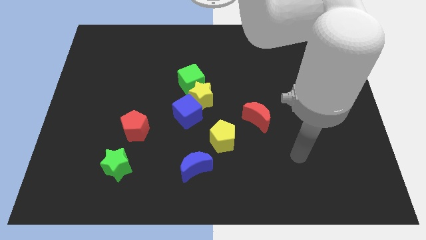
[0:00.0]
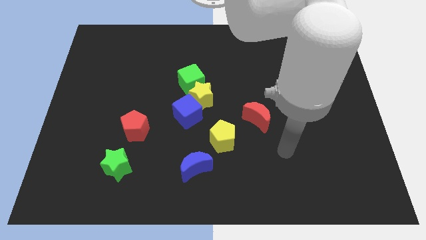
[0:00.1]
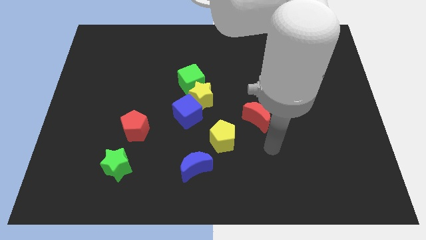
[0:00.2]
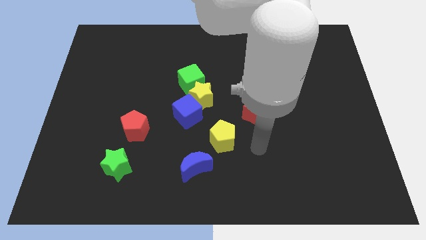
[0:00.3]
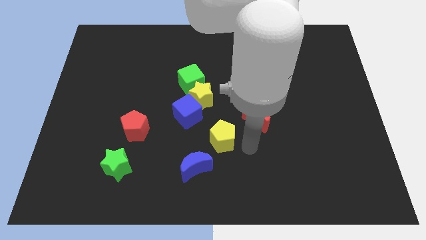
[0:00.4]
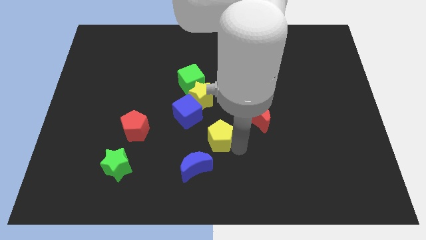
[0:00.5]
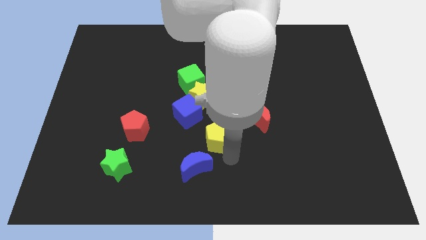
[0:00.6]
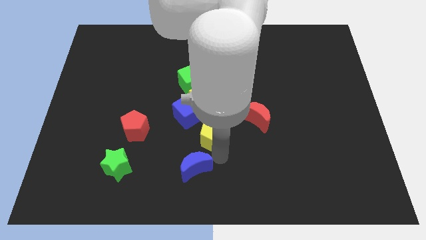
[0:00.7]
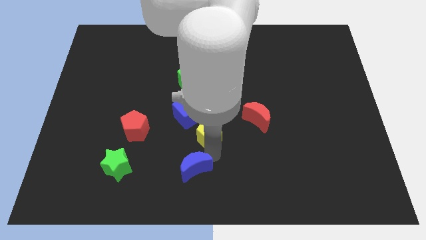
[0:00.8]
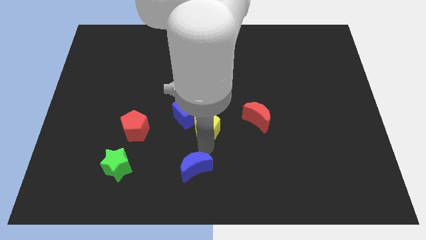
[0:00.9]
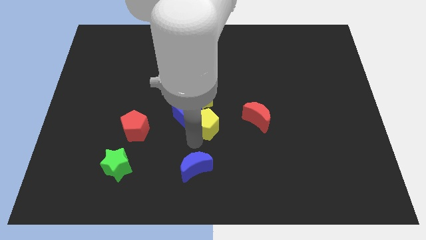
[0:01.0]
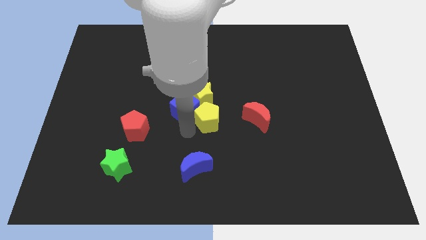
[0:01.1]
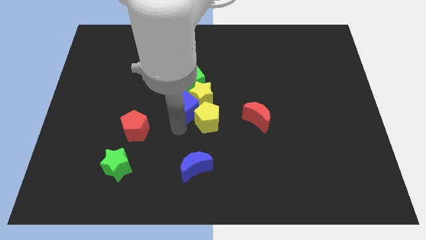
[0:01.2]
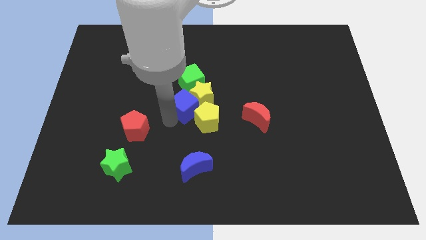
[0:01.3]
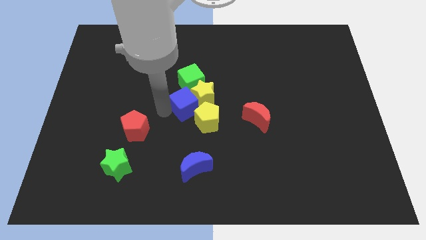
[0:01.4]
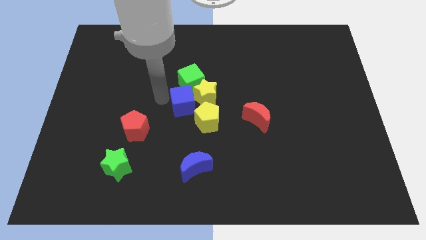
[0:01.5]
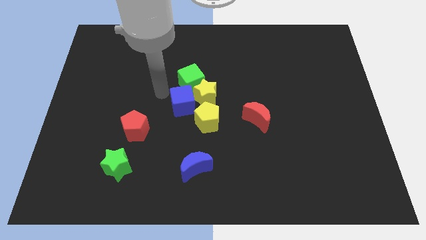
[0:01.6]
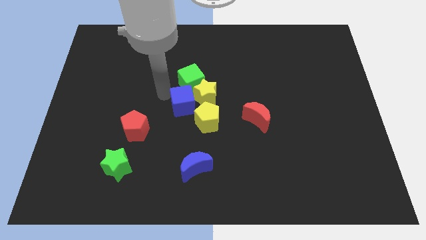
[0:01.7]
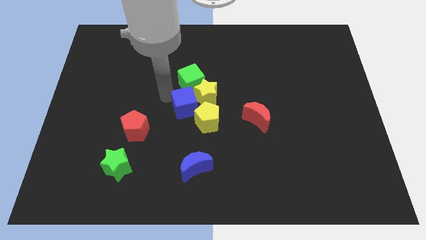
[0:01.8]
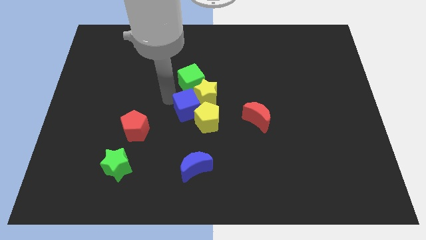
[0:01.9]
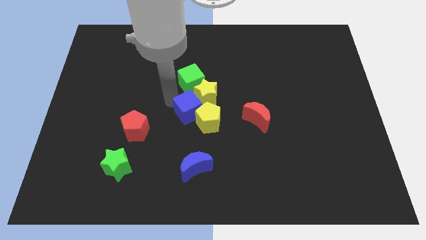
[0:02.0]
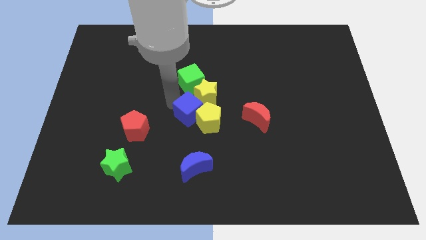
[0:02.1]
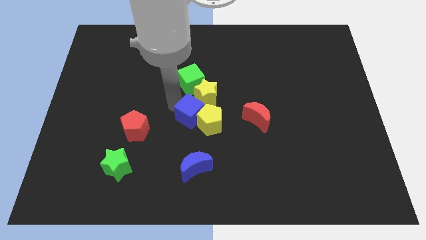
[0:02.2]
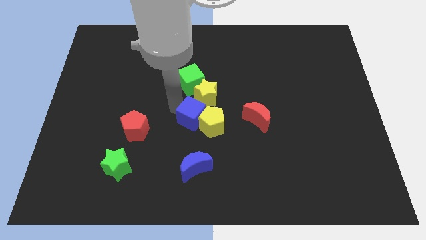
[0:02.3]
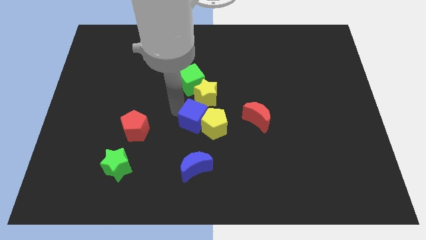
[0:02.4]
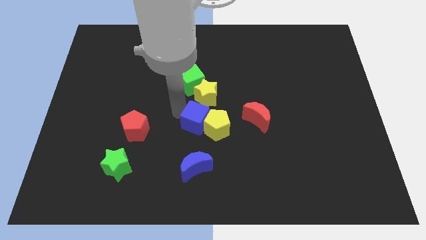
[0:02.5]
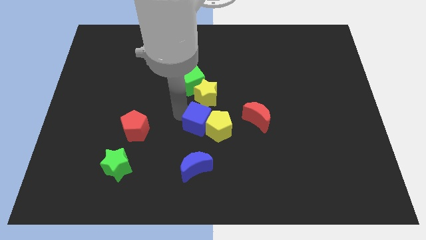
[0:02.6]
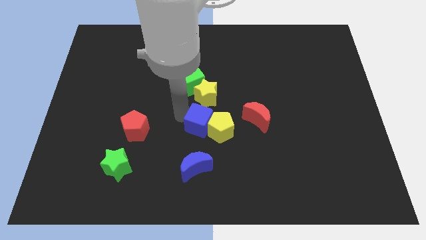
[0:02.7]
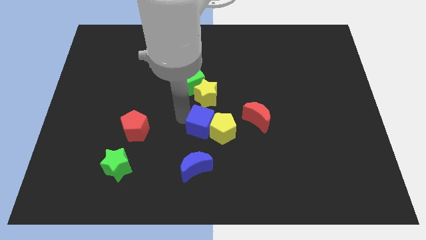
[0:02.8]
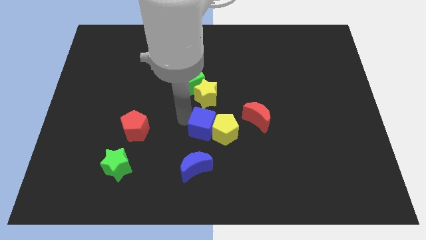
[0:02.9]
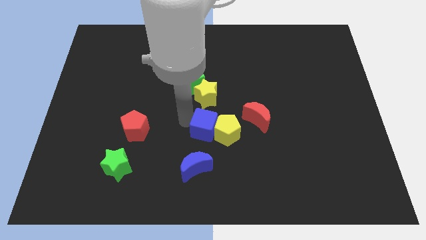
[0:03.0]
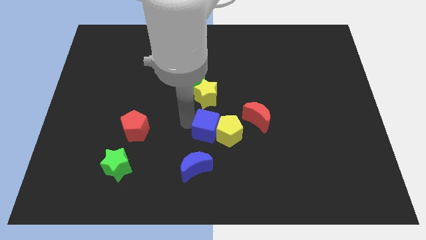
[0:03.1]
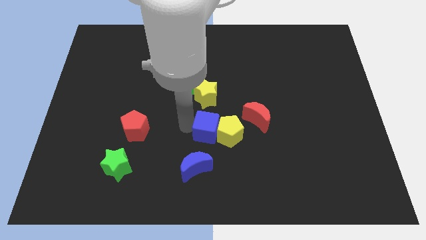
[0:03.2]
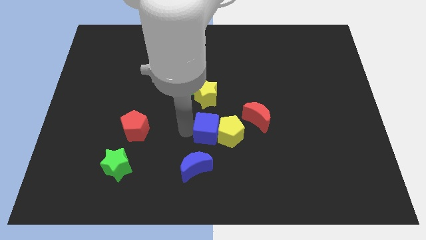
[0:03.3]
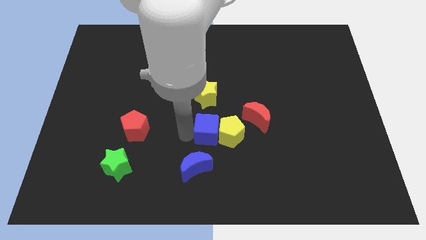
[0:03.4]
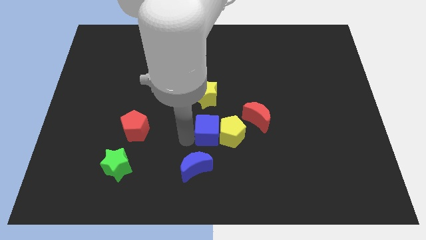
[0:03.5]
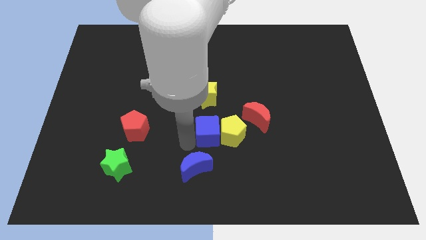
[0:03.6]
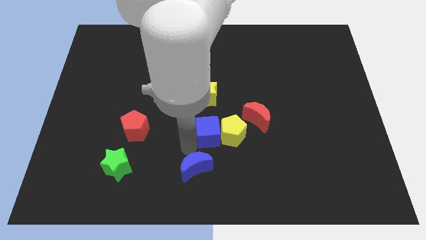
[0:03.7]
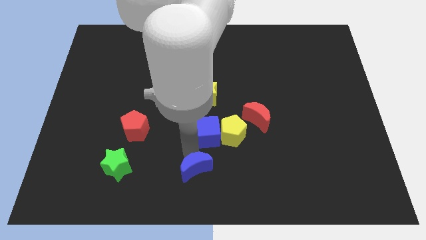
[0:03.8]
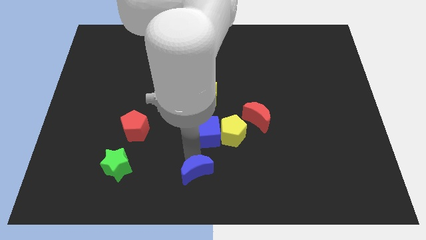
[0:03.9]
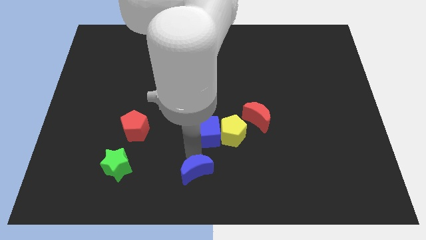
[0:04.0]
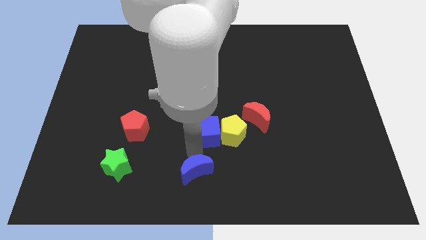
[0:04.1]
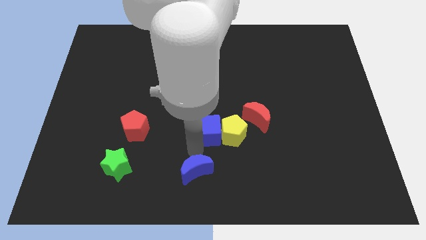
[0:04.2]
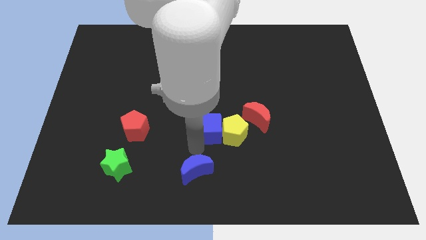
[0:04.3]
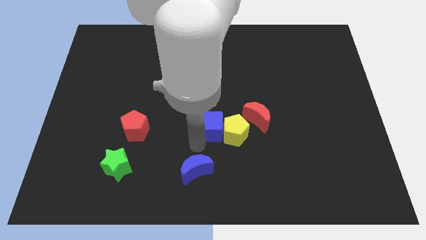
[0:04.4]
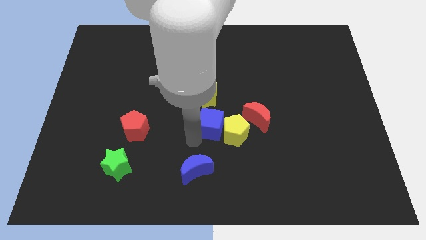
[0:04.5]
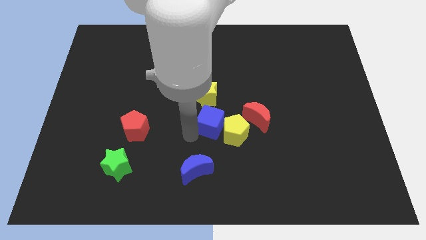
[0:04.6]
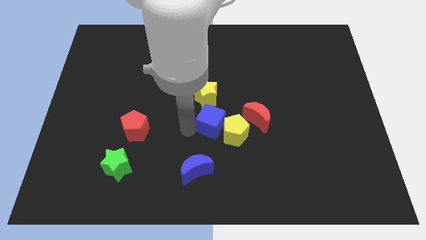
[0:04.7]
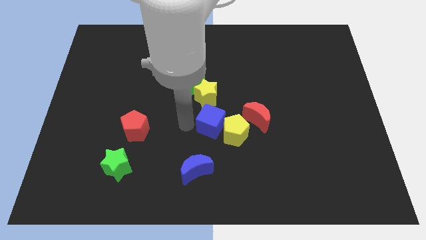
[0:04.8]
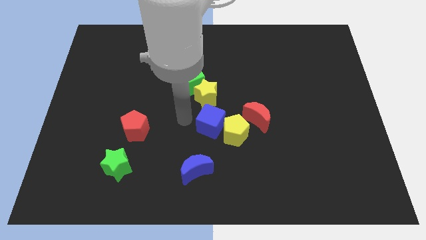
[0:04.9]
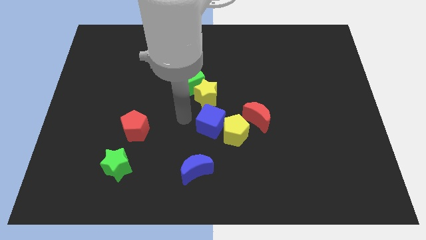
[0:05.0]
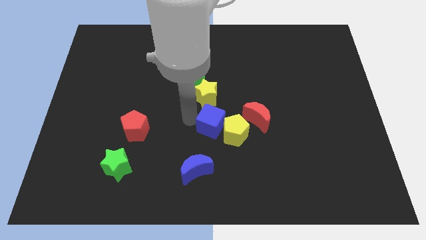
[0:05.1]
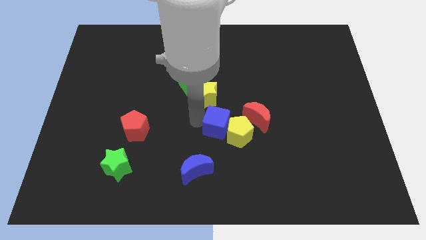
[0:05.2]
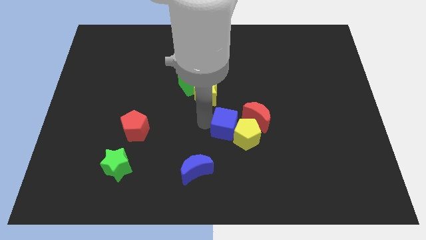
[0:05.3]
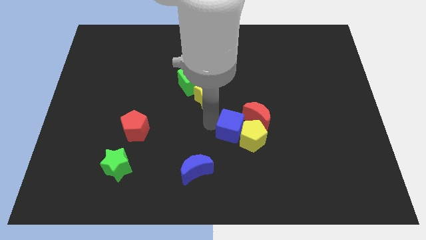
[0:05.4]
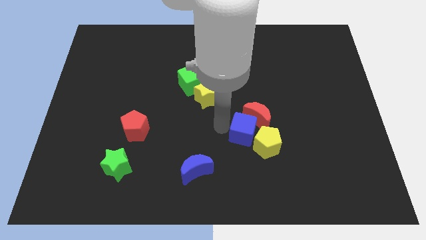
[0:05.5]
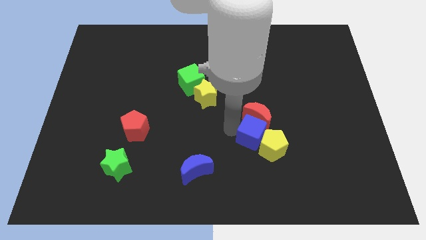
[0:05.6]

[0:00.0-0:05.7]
slide the blue cube diagonally down and to the right of the red moon

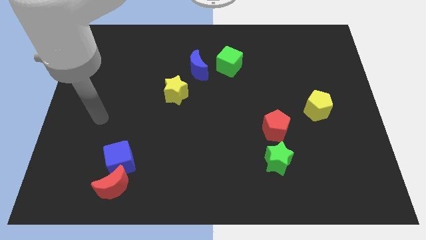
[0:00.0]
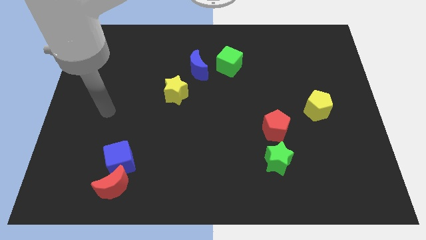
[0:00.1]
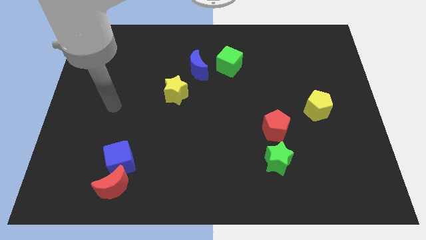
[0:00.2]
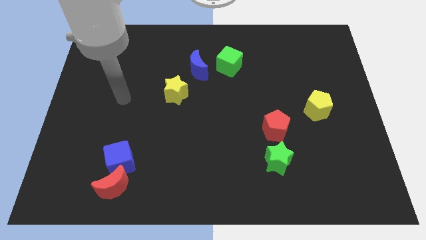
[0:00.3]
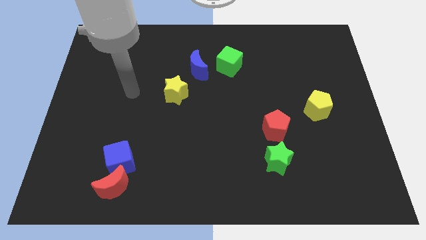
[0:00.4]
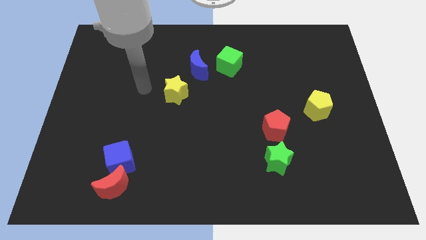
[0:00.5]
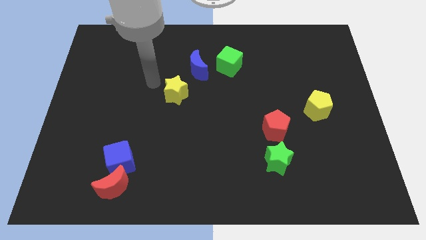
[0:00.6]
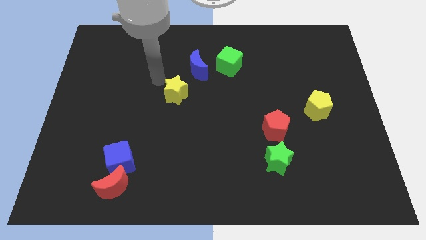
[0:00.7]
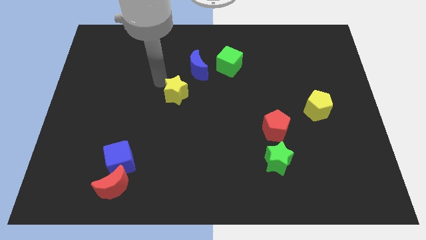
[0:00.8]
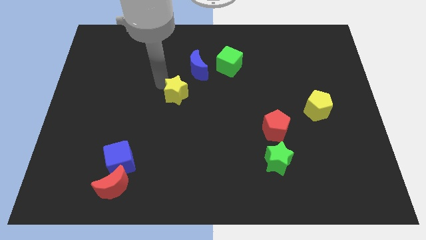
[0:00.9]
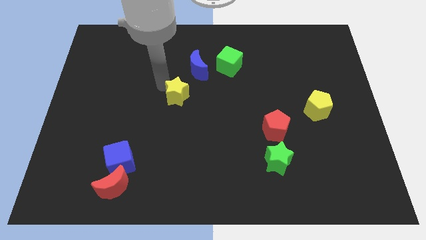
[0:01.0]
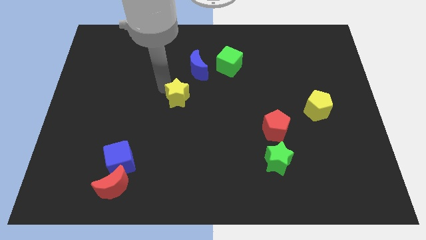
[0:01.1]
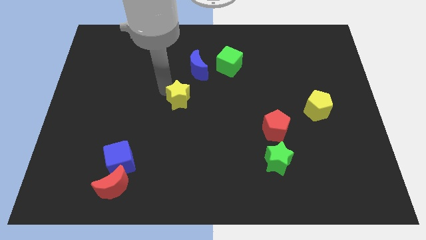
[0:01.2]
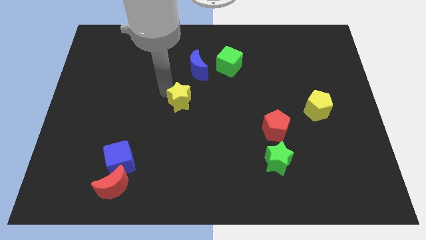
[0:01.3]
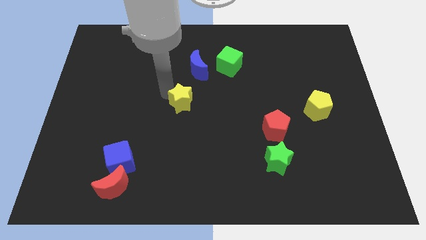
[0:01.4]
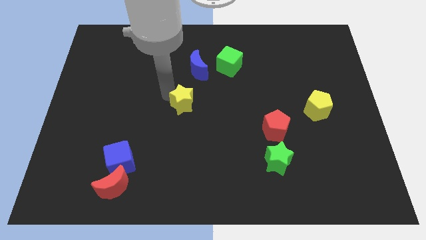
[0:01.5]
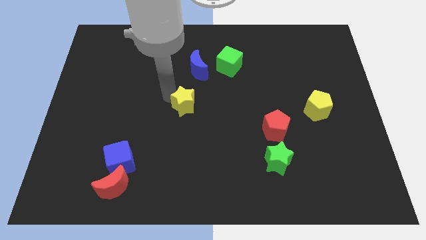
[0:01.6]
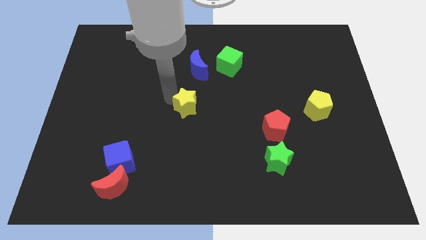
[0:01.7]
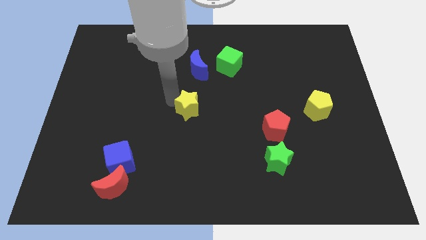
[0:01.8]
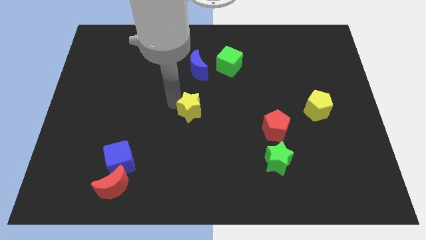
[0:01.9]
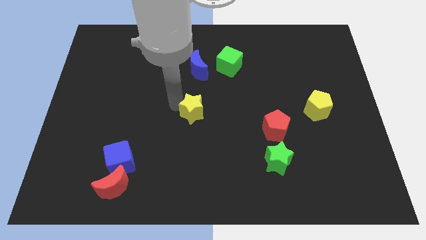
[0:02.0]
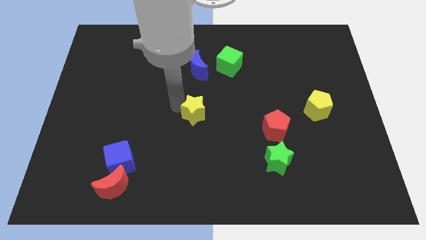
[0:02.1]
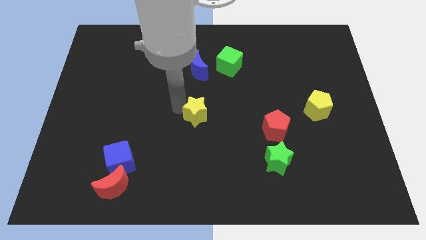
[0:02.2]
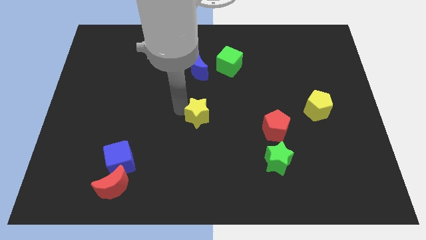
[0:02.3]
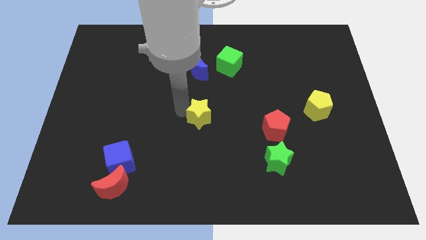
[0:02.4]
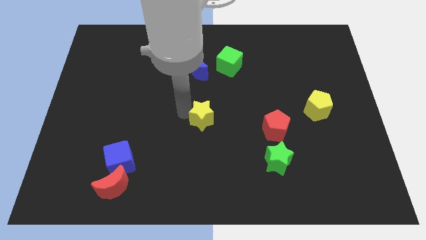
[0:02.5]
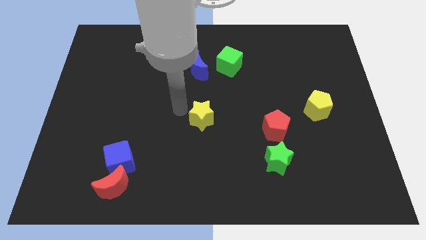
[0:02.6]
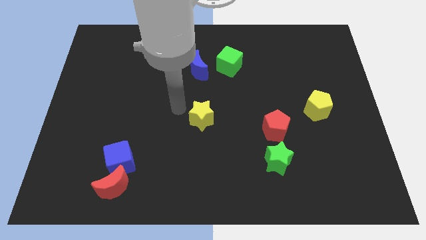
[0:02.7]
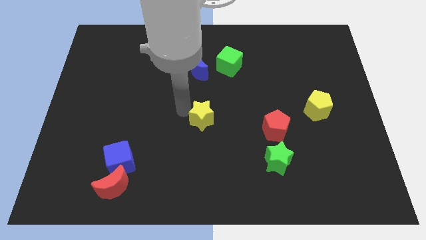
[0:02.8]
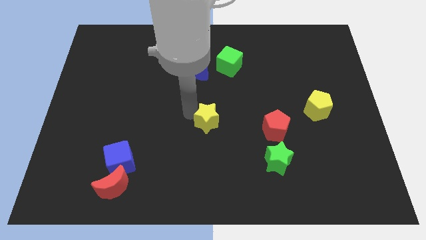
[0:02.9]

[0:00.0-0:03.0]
slide the yellow star left of the red pentagon
